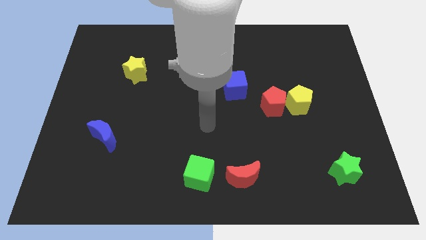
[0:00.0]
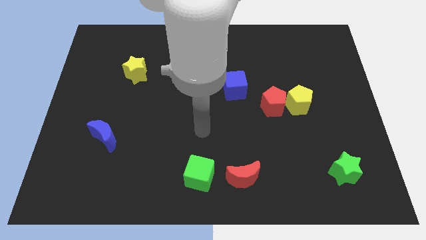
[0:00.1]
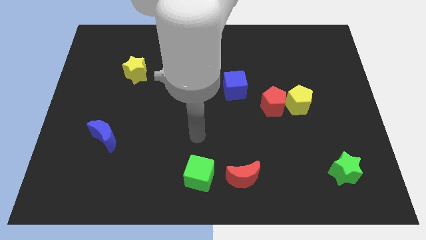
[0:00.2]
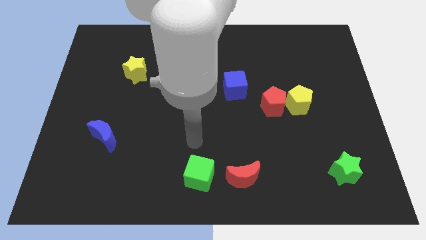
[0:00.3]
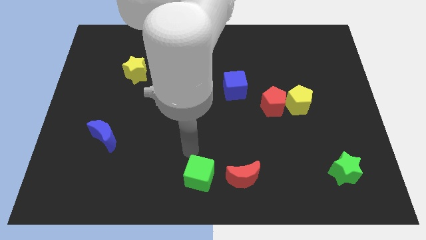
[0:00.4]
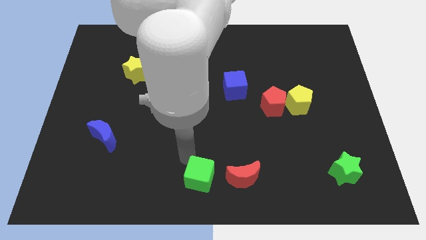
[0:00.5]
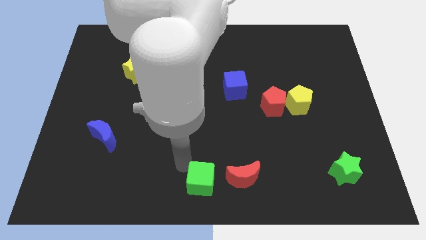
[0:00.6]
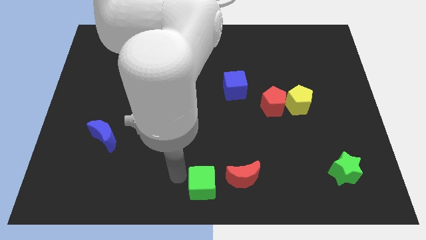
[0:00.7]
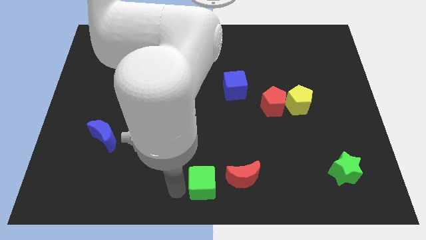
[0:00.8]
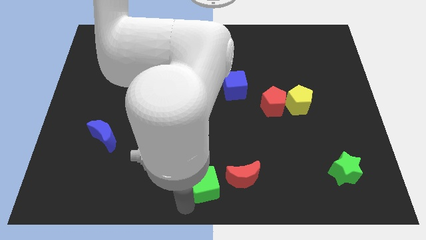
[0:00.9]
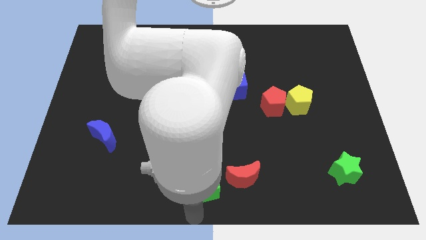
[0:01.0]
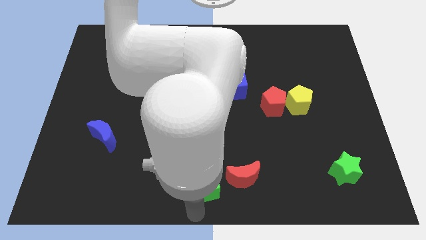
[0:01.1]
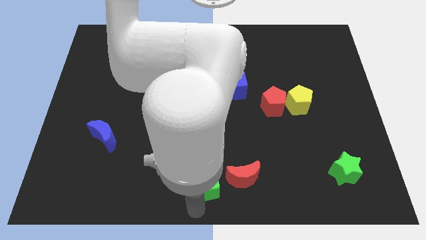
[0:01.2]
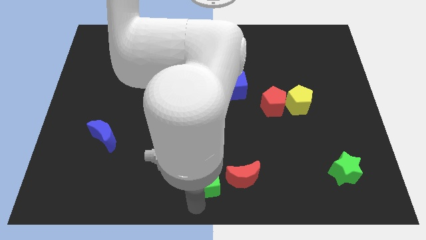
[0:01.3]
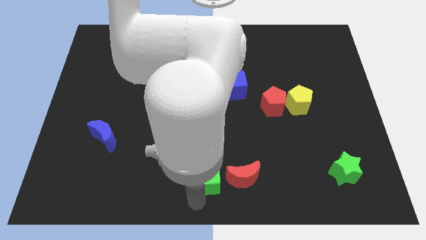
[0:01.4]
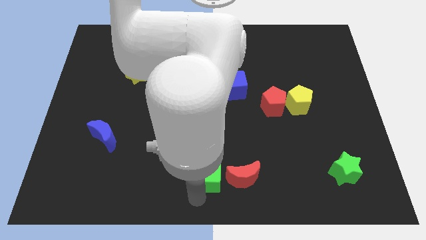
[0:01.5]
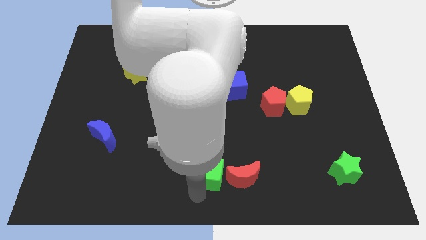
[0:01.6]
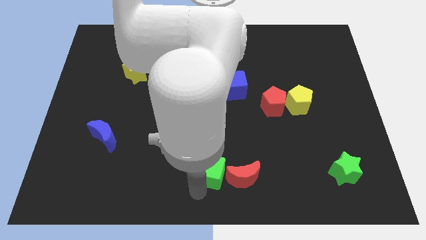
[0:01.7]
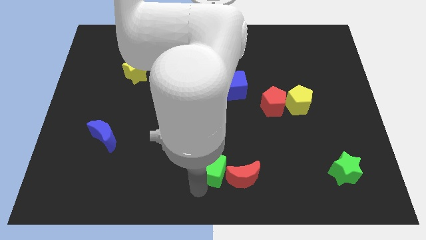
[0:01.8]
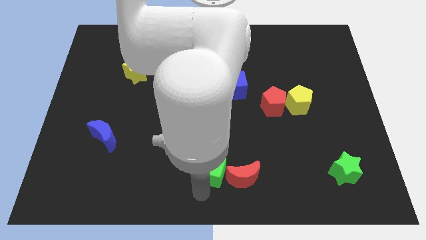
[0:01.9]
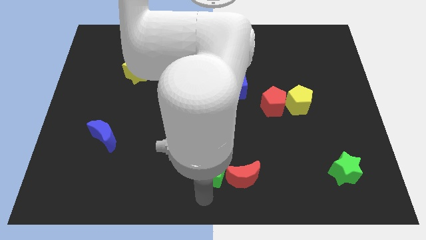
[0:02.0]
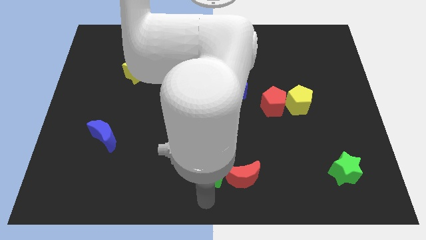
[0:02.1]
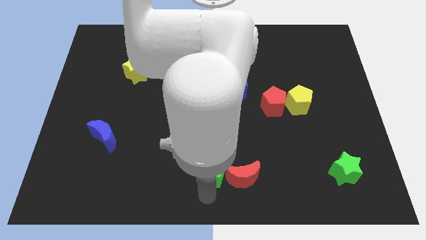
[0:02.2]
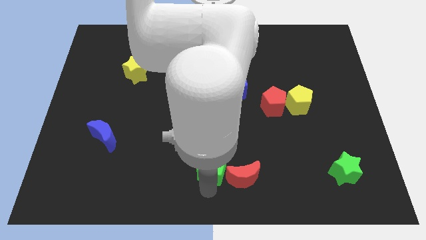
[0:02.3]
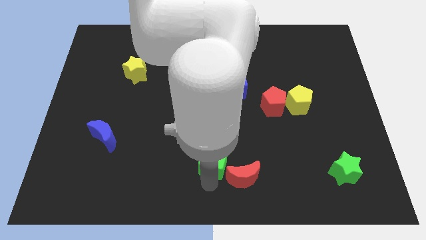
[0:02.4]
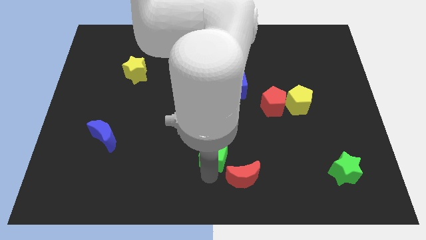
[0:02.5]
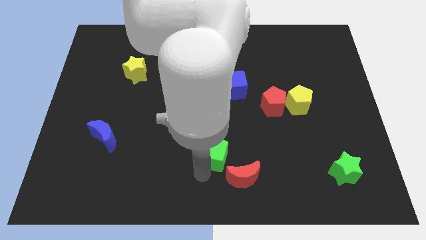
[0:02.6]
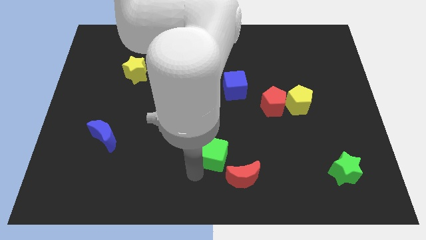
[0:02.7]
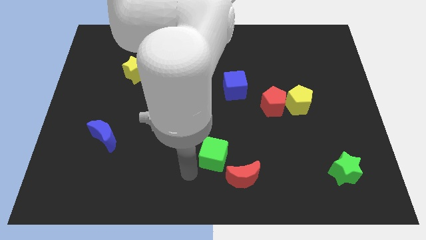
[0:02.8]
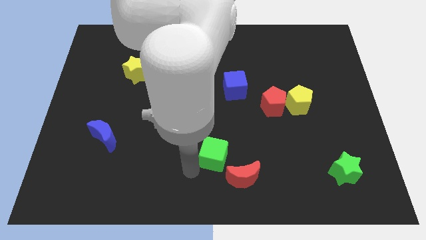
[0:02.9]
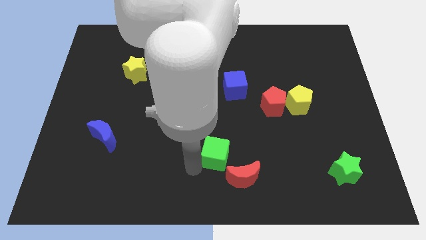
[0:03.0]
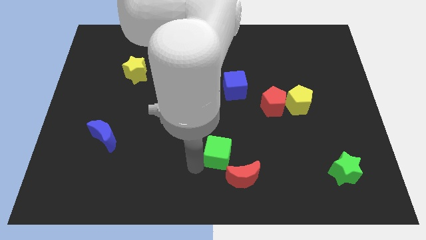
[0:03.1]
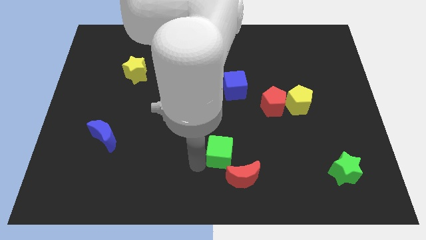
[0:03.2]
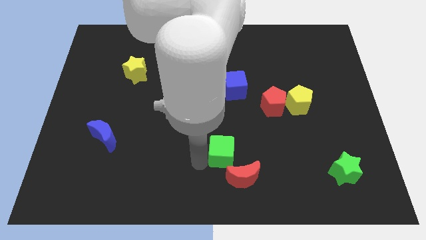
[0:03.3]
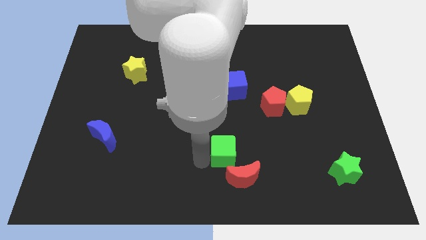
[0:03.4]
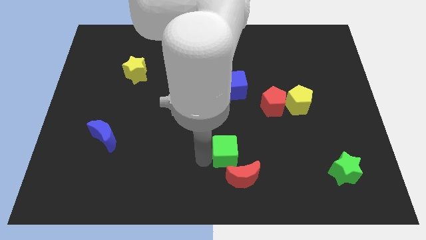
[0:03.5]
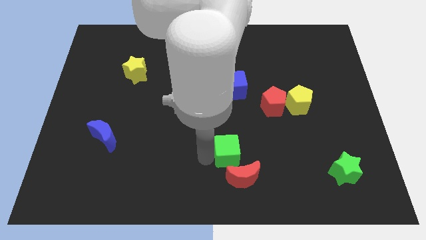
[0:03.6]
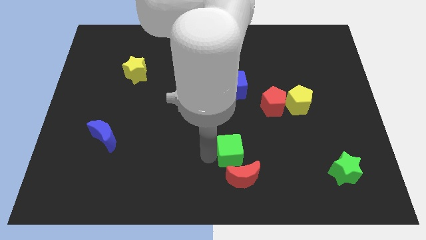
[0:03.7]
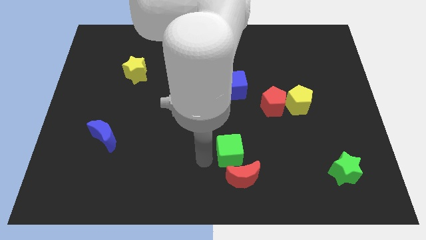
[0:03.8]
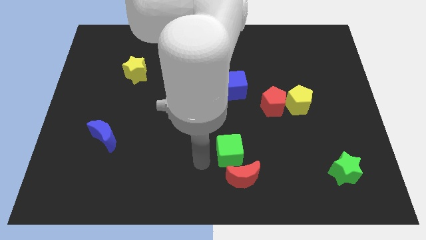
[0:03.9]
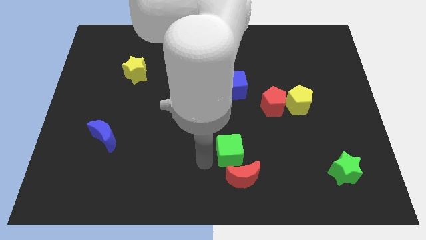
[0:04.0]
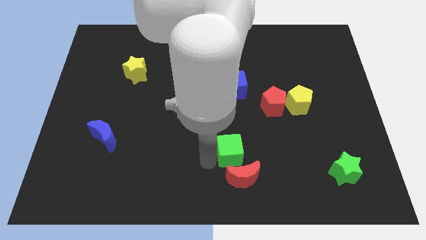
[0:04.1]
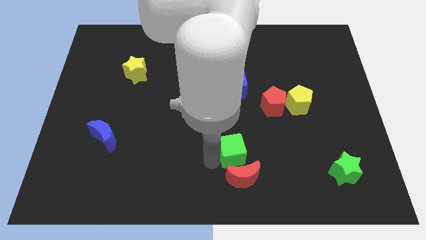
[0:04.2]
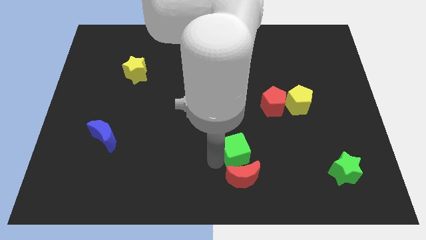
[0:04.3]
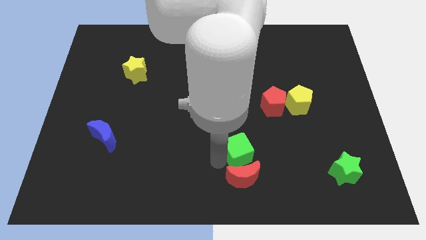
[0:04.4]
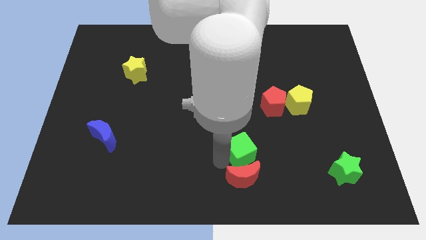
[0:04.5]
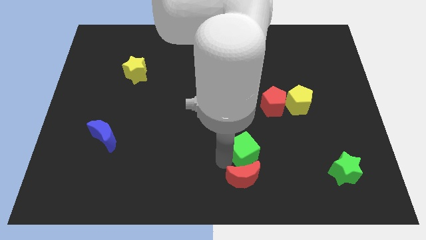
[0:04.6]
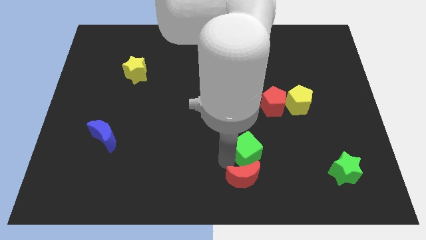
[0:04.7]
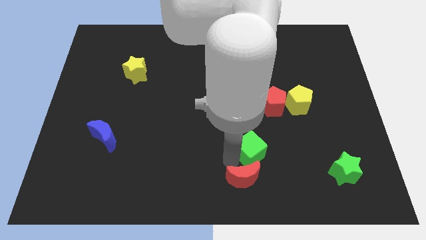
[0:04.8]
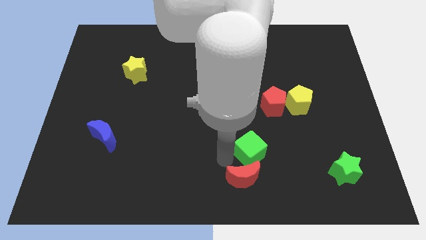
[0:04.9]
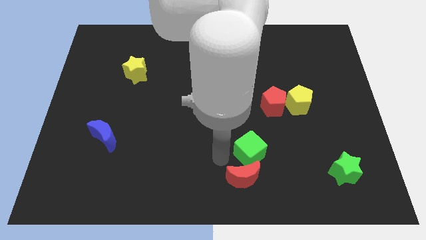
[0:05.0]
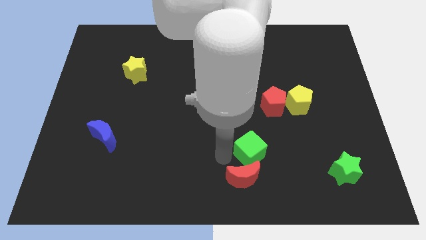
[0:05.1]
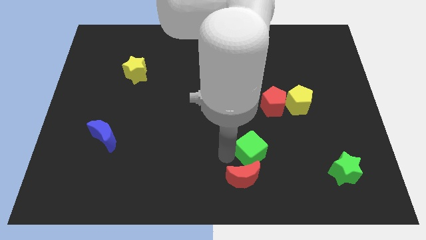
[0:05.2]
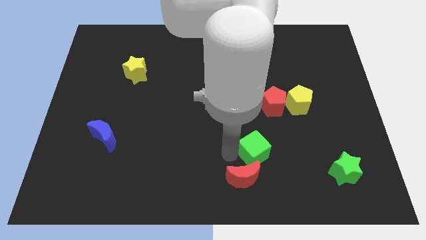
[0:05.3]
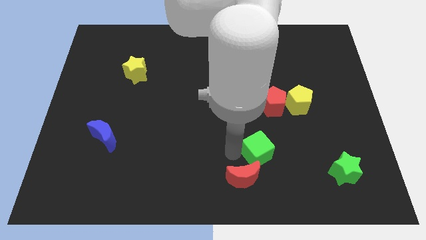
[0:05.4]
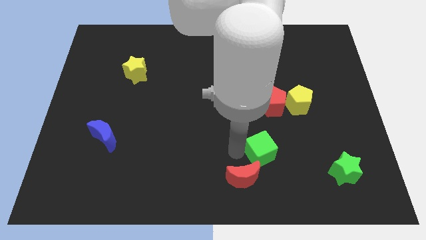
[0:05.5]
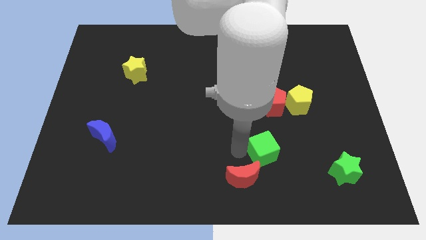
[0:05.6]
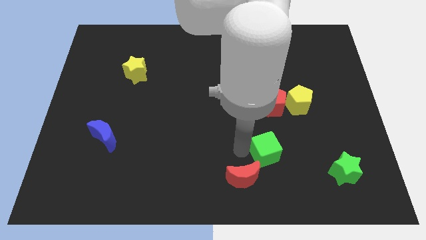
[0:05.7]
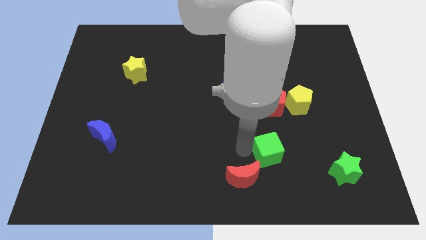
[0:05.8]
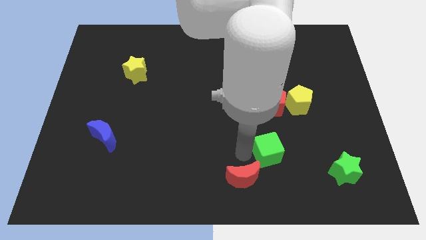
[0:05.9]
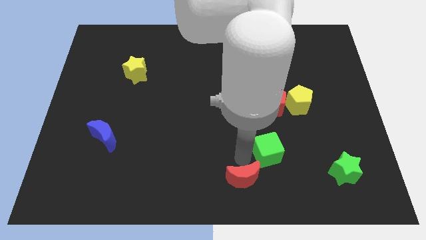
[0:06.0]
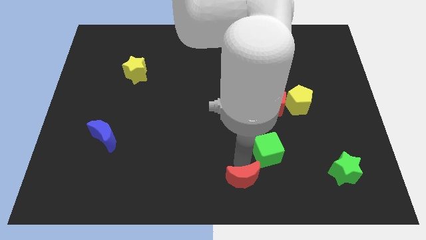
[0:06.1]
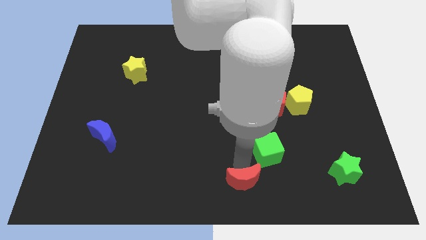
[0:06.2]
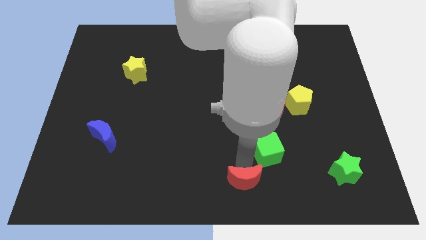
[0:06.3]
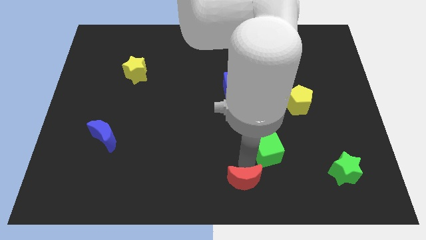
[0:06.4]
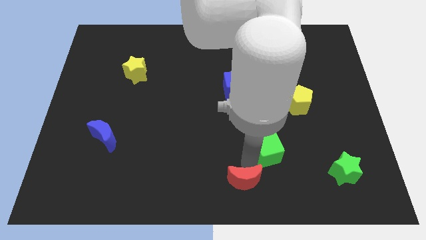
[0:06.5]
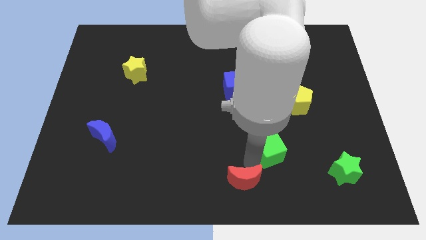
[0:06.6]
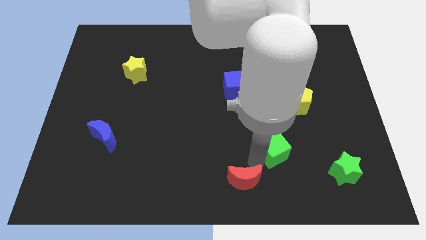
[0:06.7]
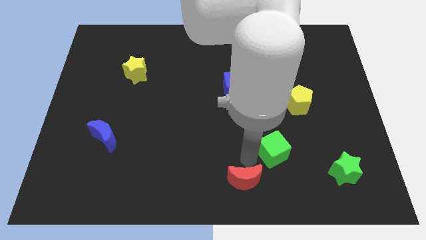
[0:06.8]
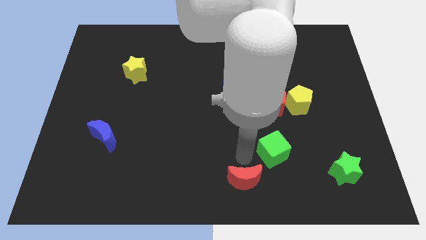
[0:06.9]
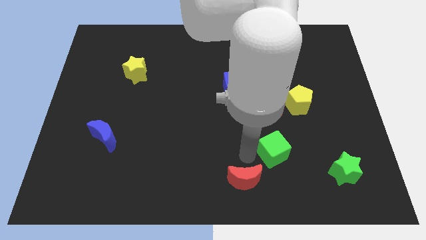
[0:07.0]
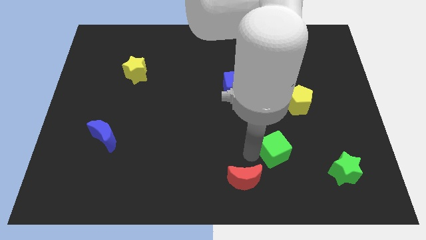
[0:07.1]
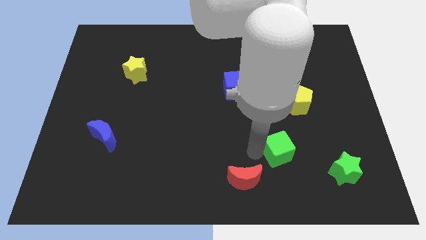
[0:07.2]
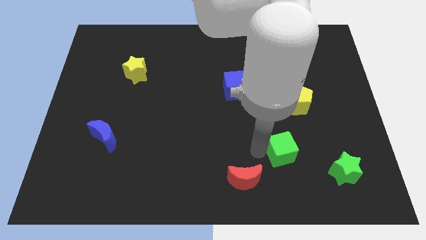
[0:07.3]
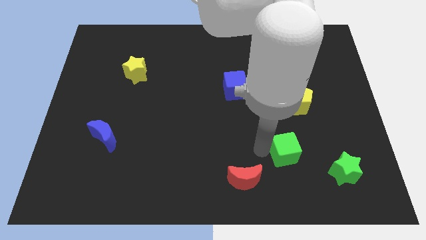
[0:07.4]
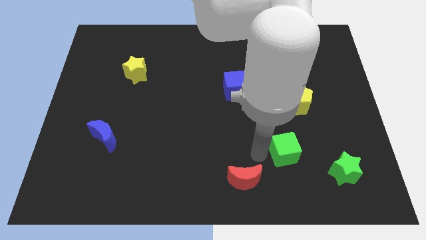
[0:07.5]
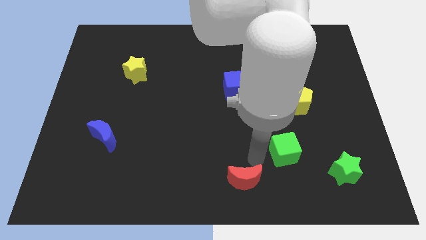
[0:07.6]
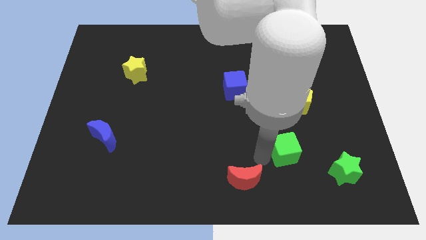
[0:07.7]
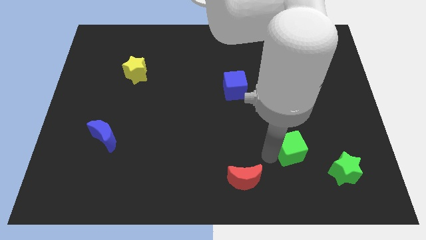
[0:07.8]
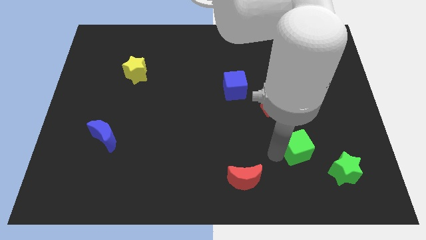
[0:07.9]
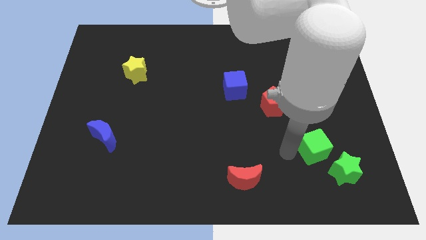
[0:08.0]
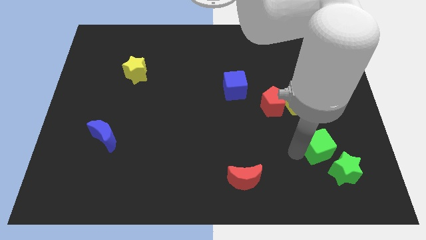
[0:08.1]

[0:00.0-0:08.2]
slide the green cube to the top of the green star
